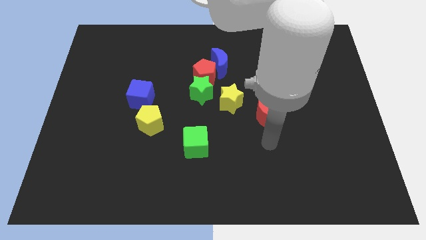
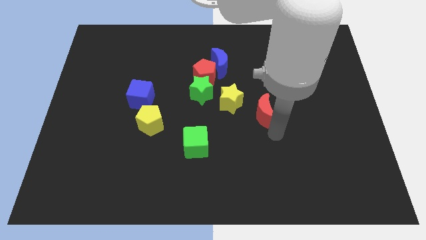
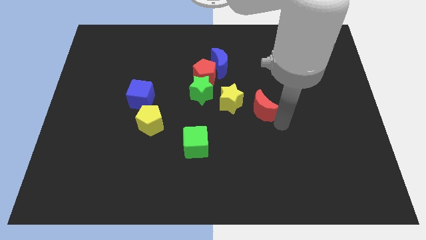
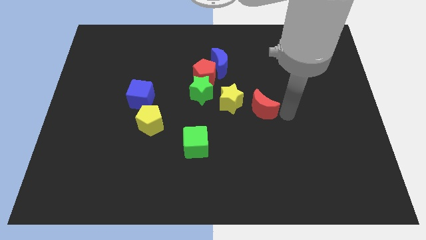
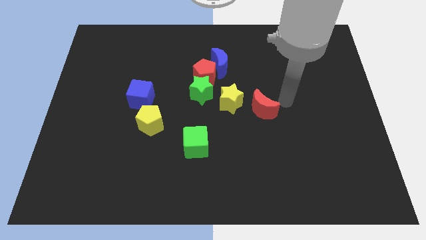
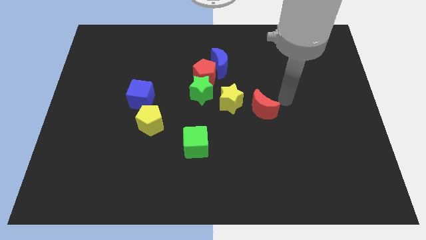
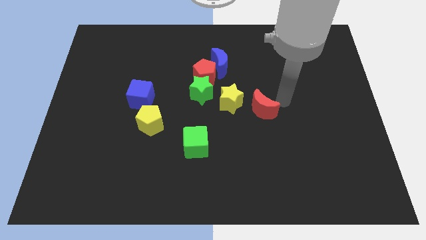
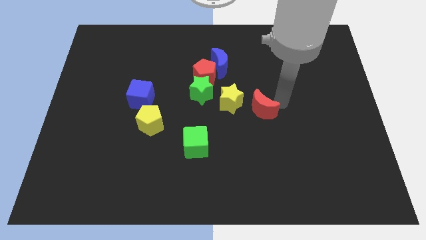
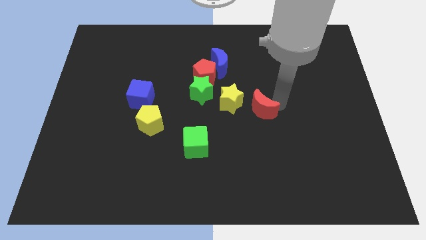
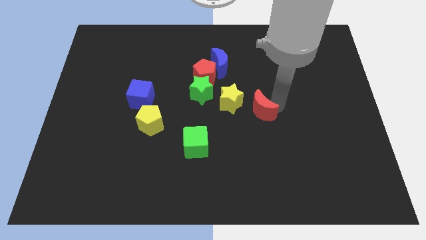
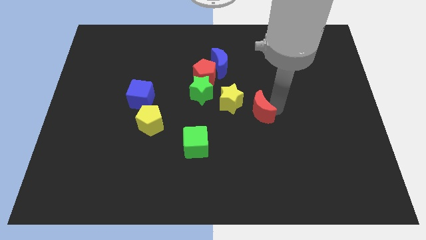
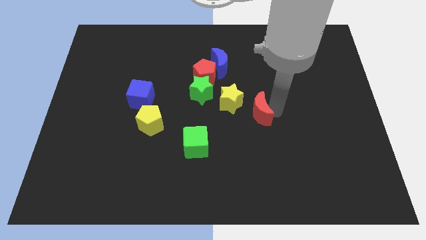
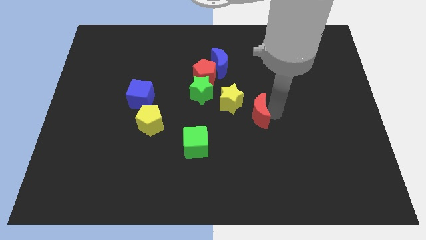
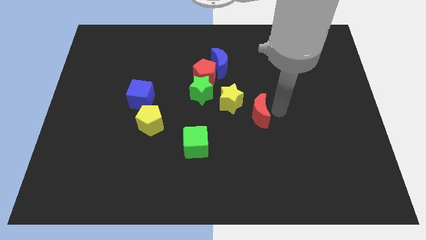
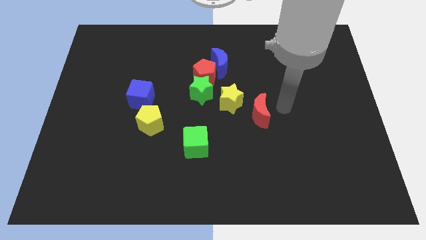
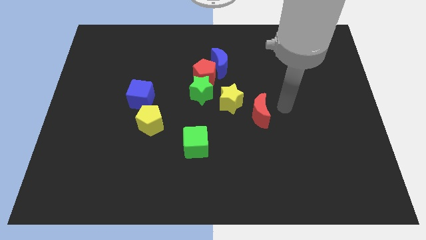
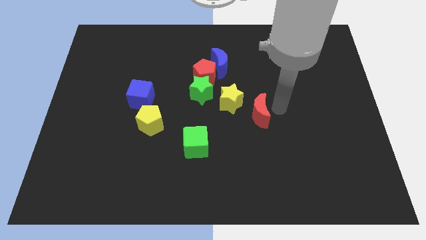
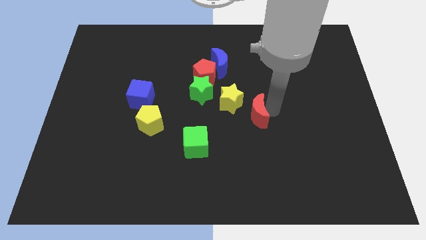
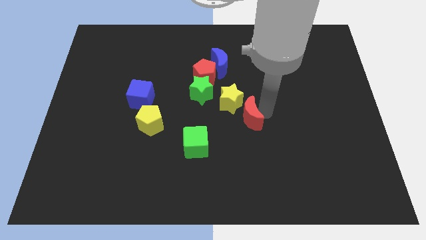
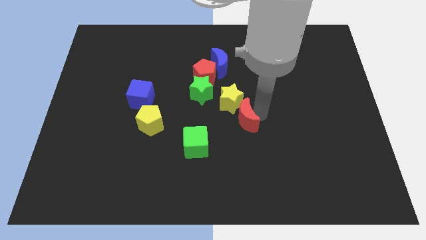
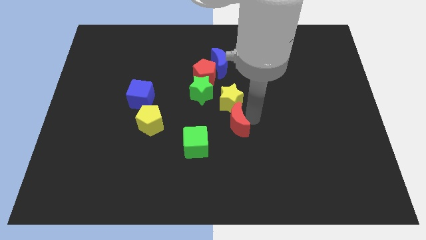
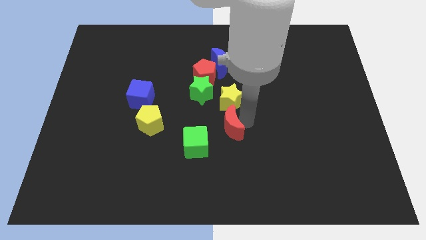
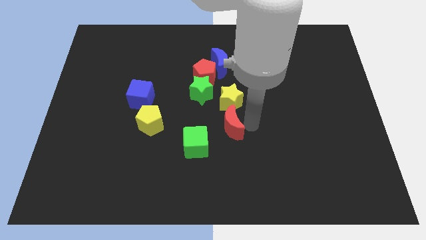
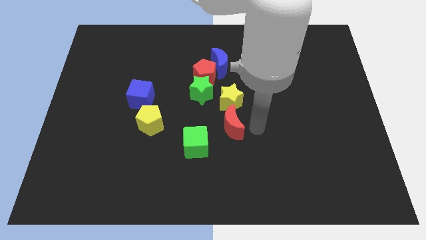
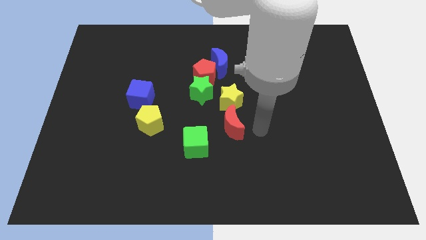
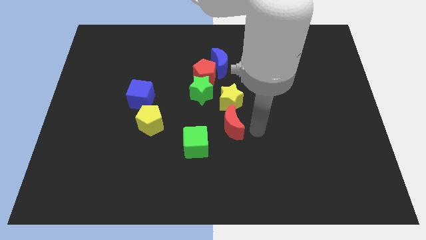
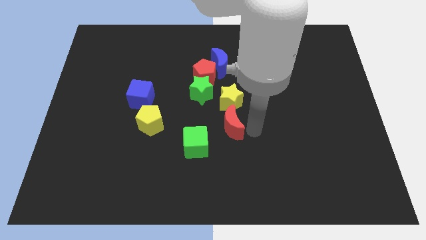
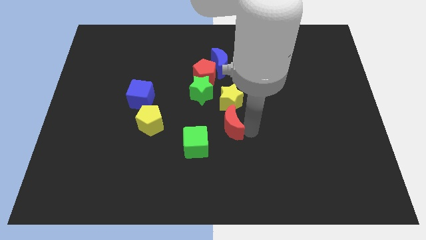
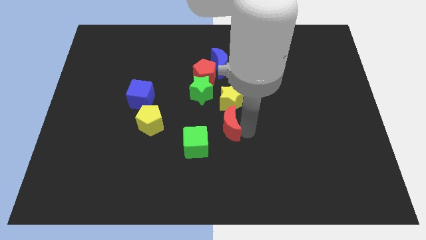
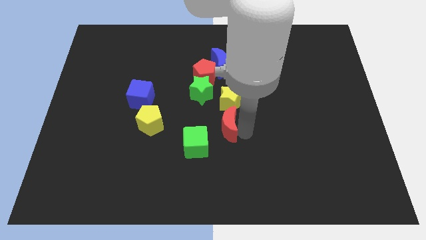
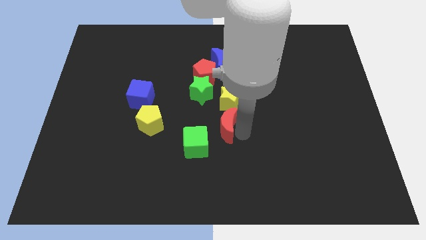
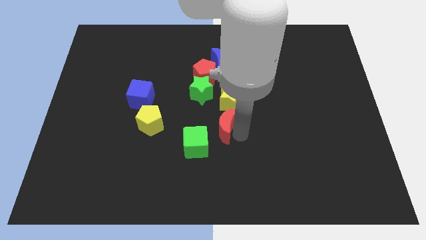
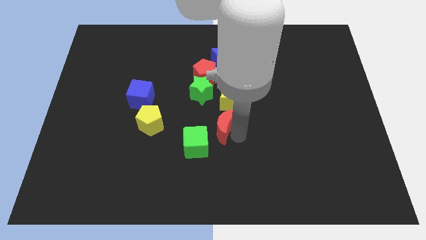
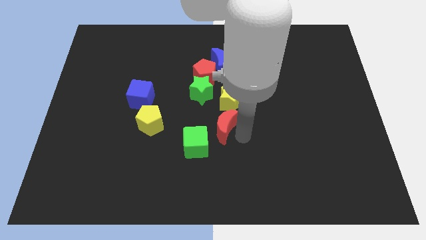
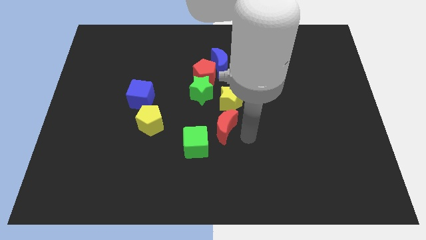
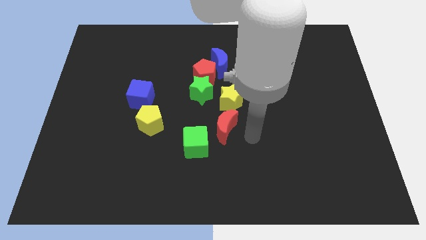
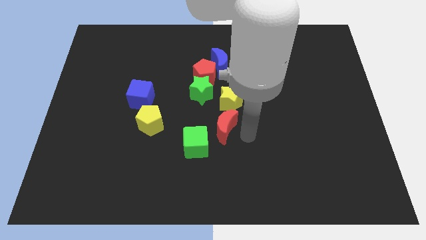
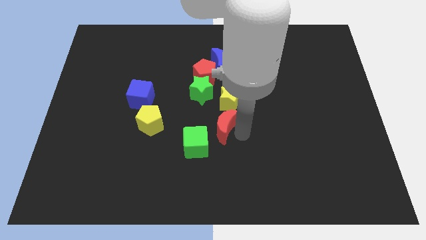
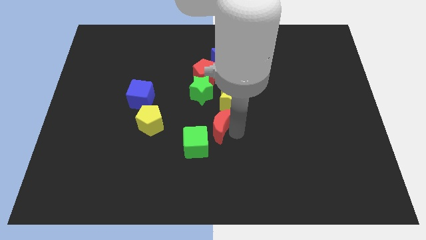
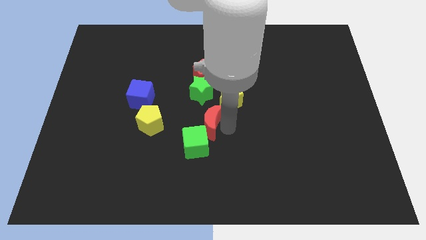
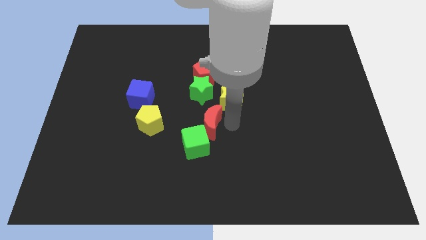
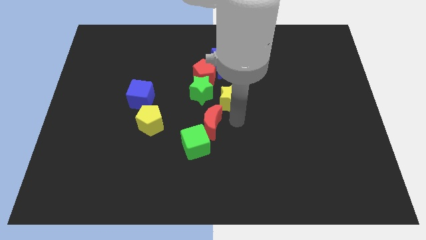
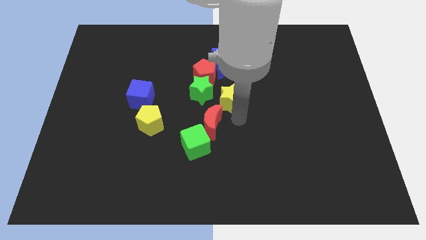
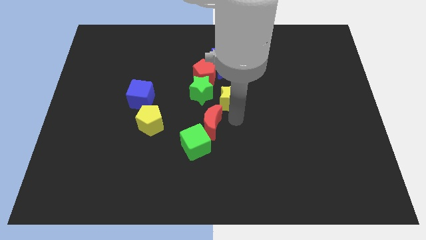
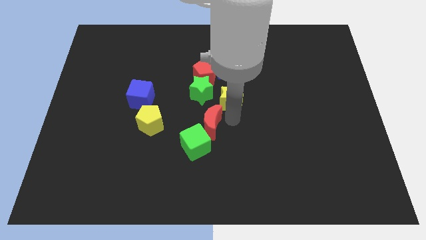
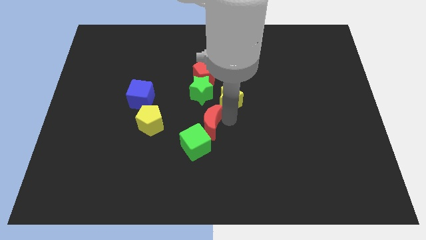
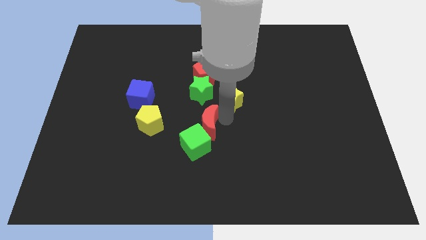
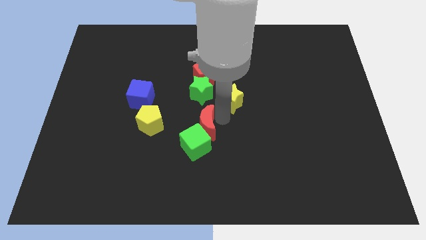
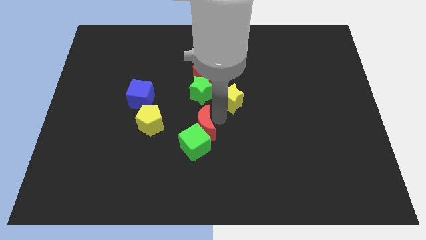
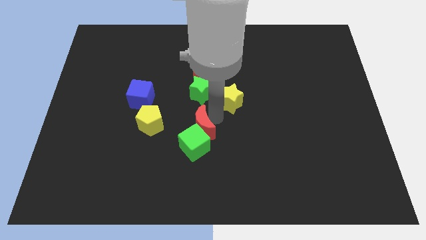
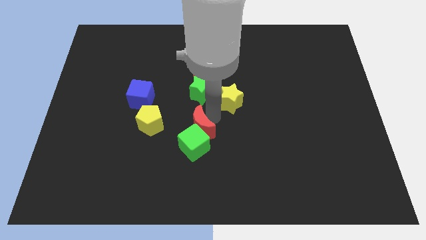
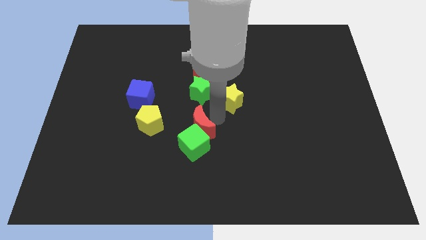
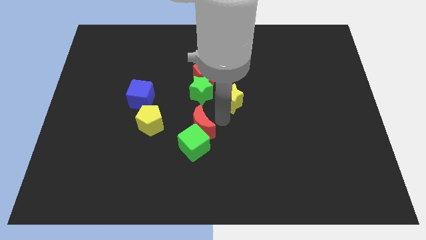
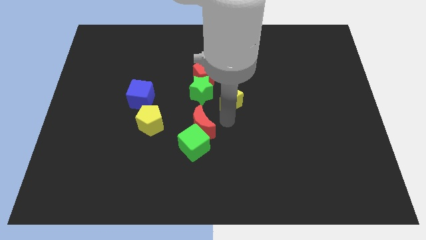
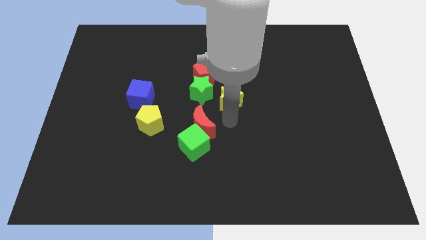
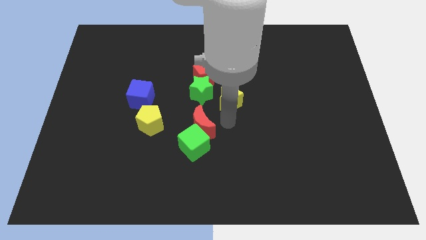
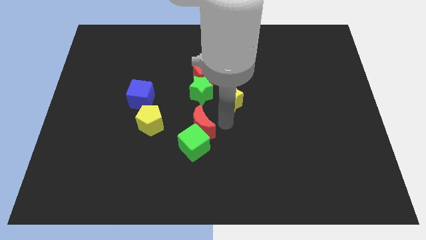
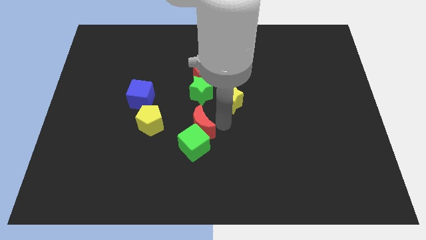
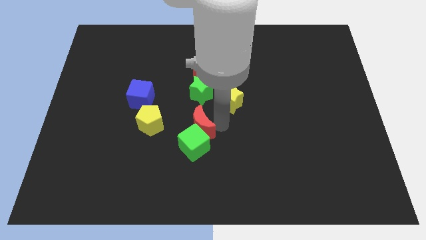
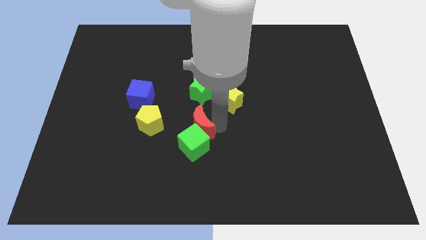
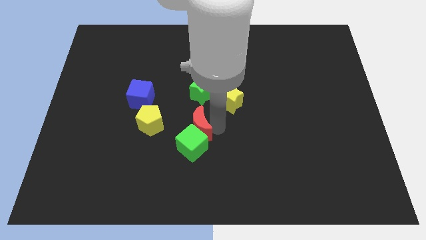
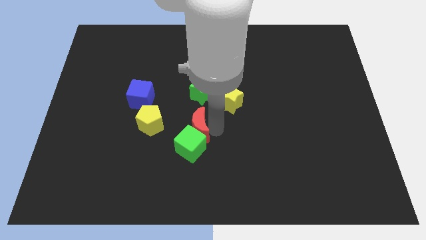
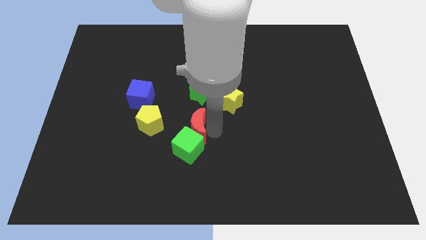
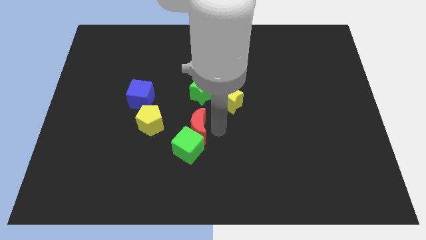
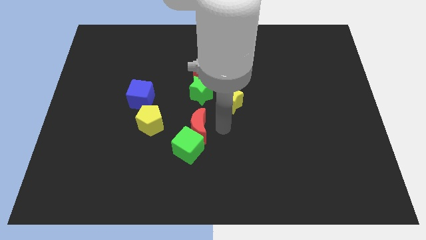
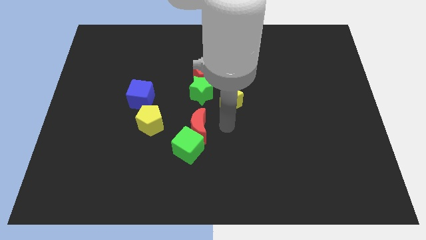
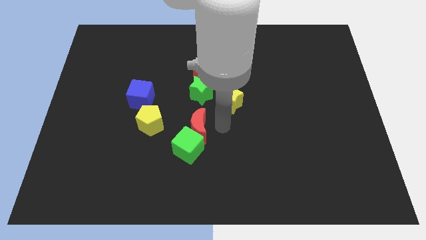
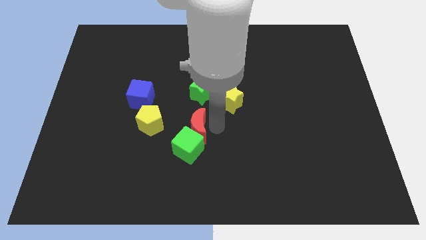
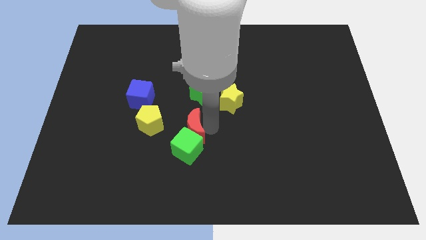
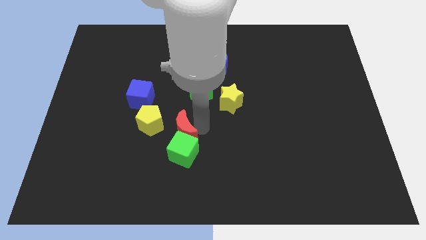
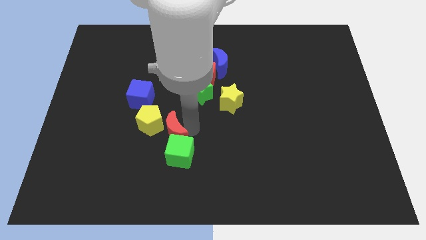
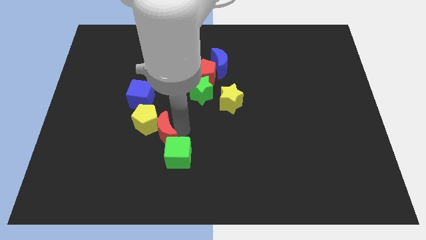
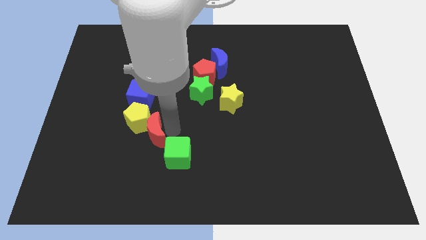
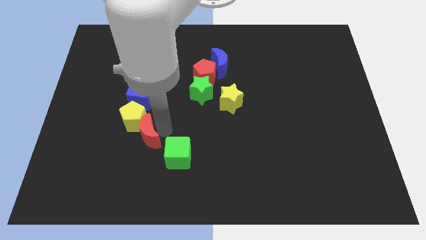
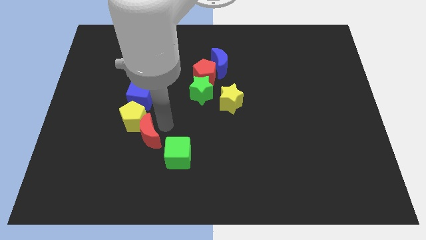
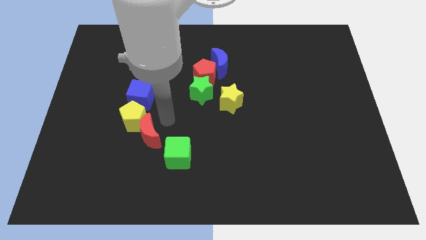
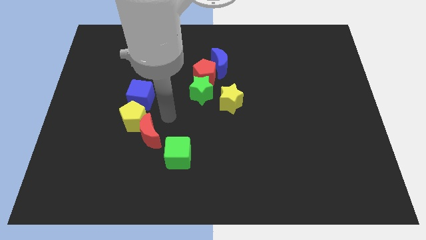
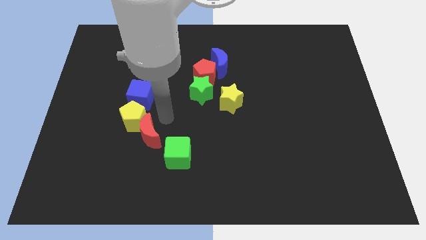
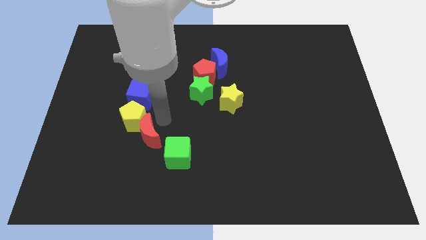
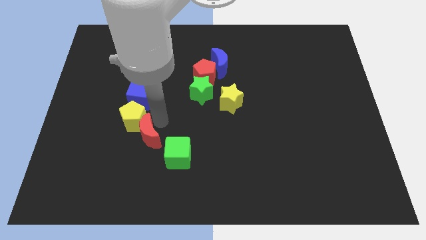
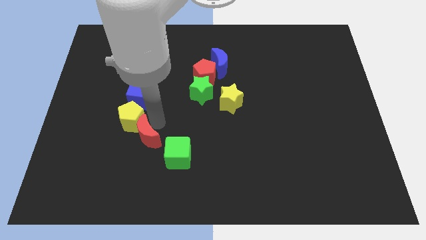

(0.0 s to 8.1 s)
put the red moon to the left side of the green cube

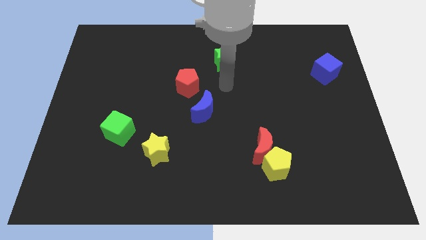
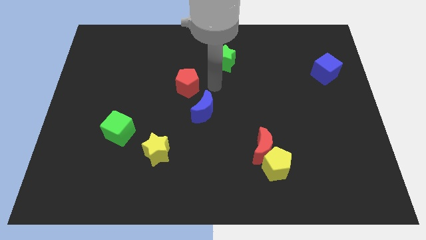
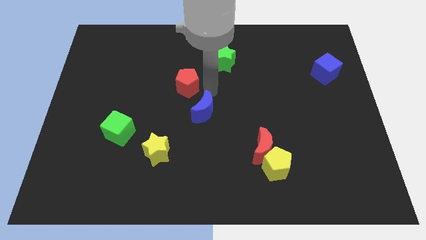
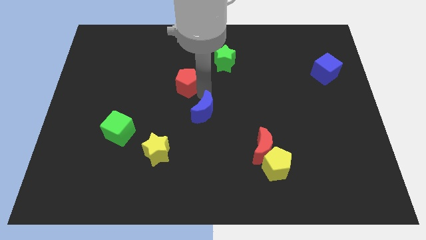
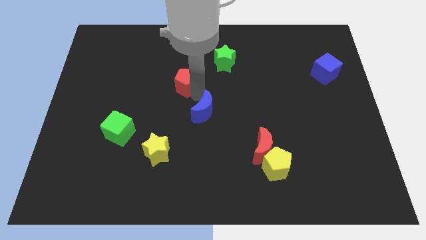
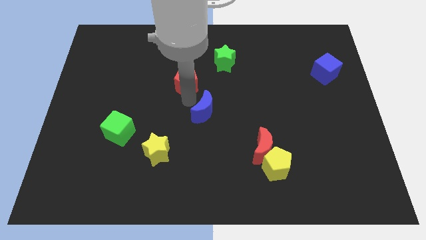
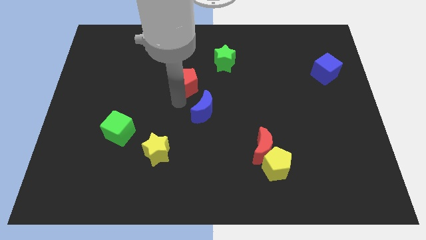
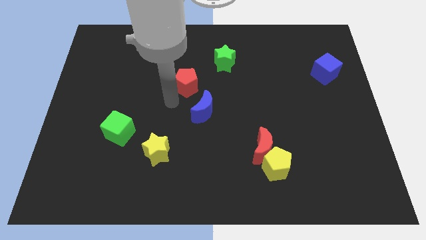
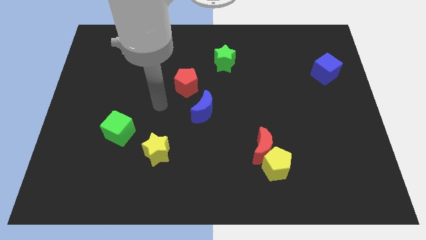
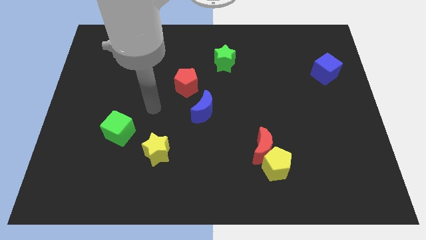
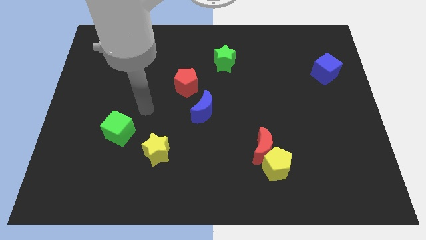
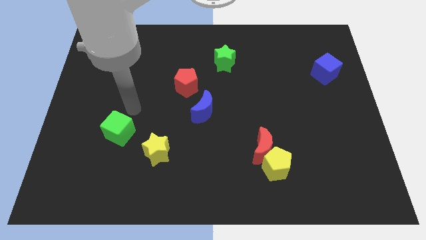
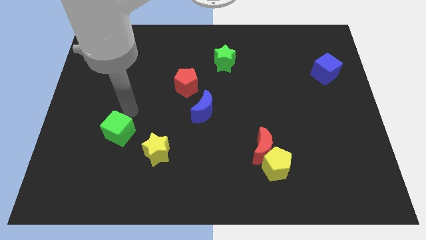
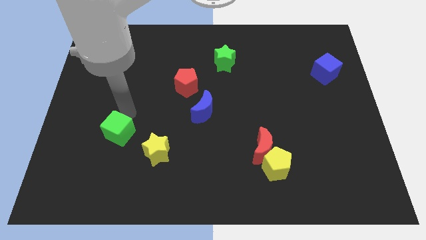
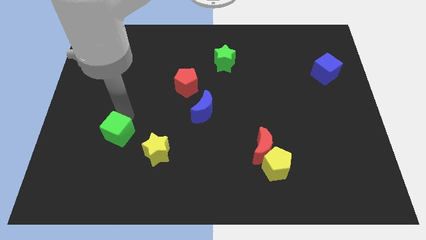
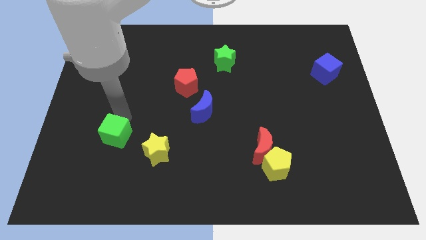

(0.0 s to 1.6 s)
push the green cube to the left of the yellow star
